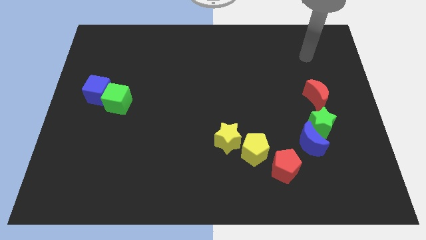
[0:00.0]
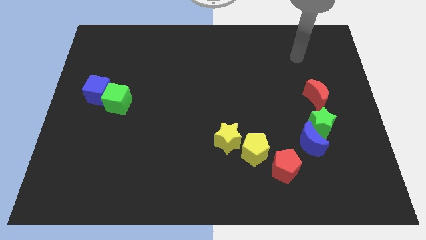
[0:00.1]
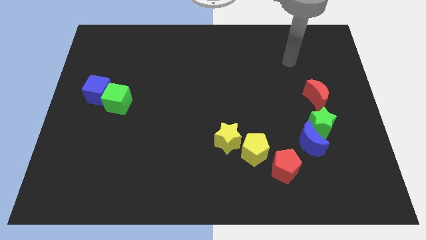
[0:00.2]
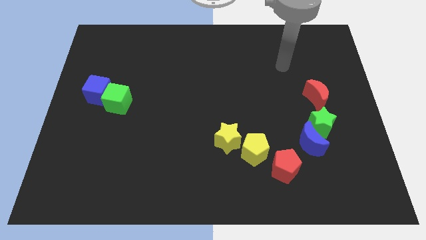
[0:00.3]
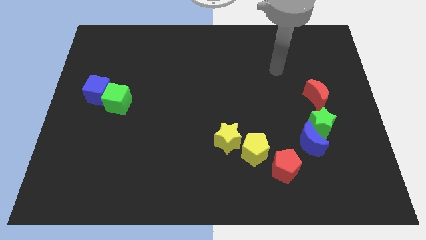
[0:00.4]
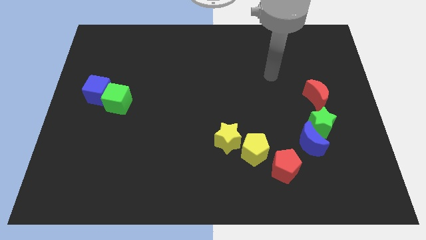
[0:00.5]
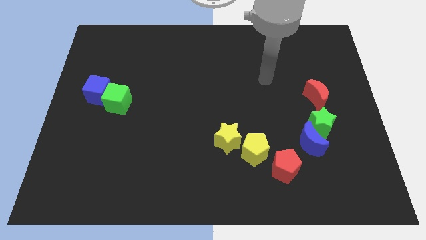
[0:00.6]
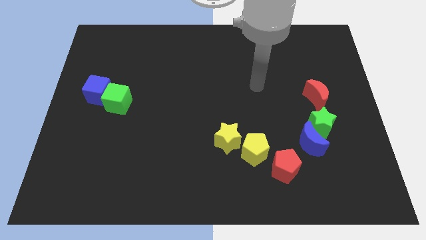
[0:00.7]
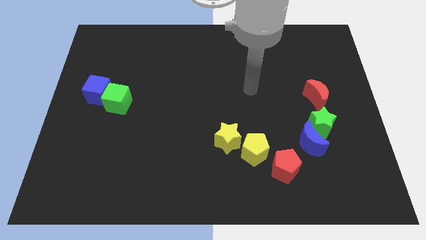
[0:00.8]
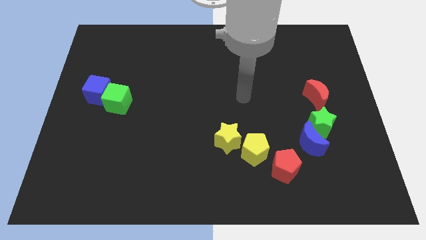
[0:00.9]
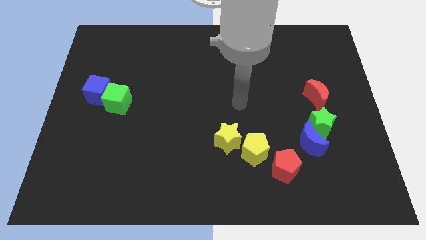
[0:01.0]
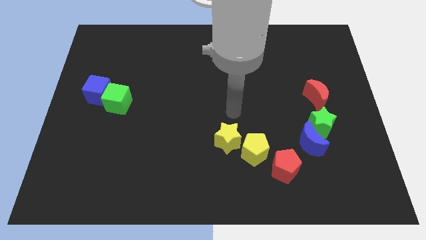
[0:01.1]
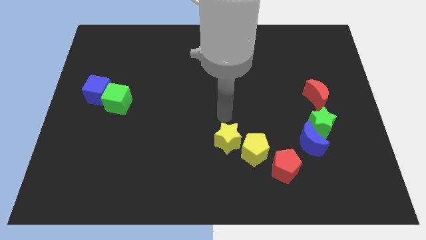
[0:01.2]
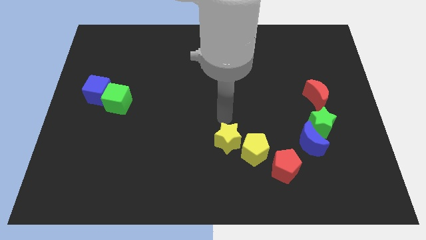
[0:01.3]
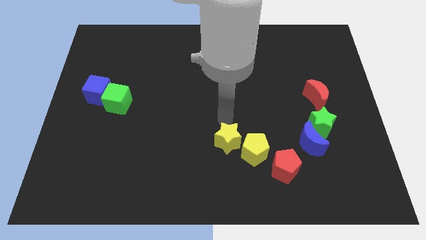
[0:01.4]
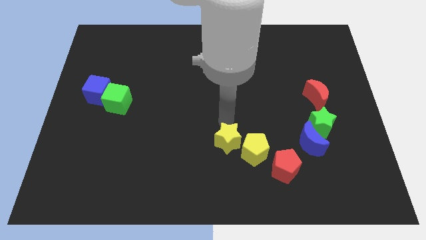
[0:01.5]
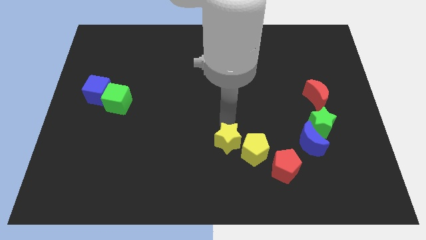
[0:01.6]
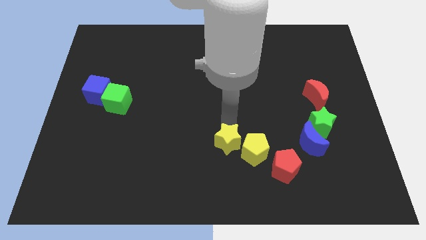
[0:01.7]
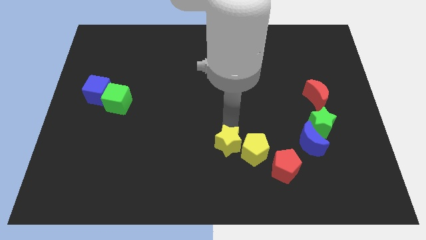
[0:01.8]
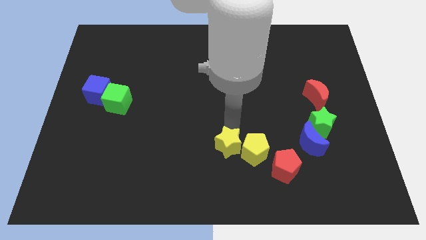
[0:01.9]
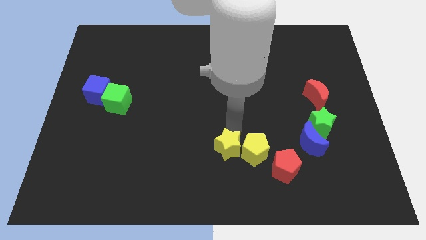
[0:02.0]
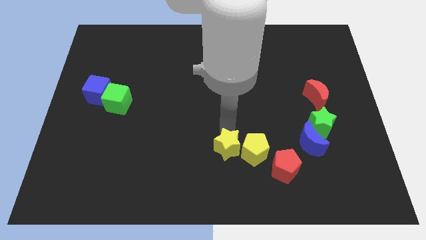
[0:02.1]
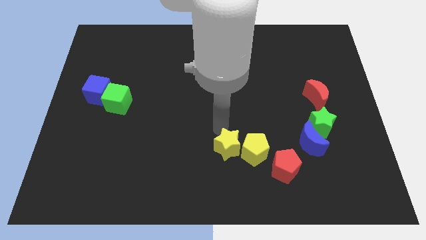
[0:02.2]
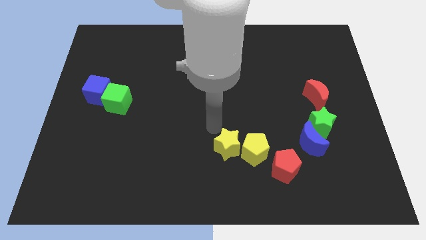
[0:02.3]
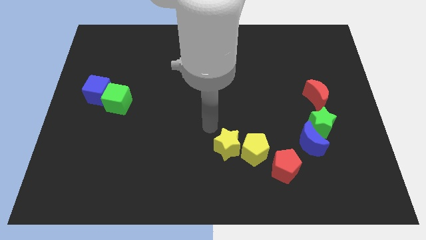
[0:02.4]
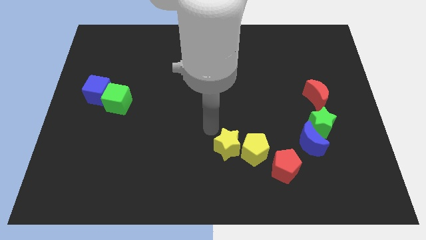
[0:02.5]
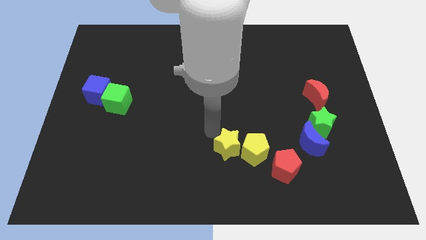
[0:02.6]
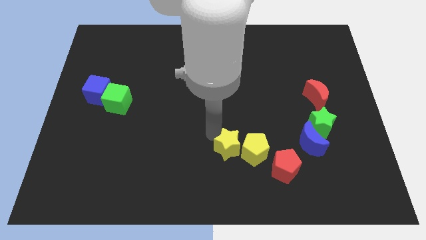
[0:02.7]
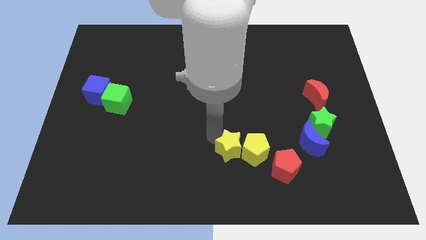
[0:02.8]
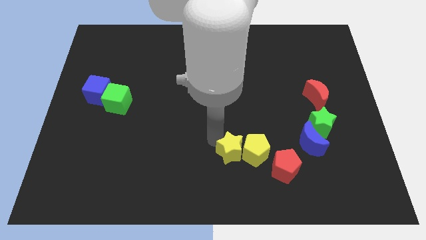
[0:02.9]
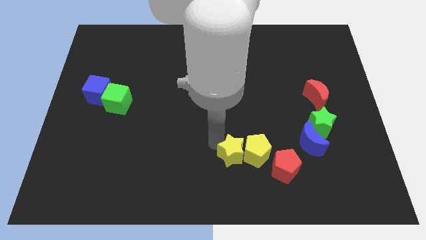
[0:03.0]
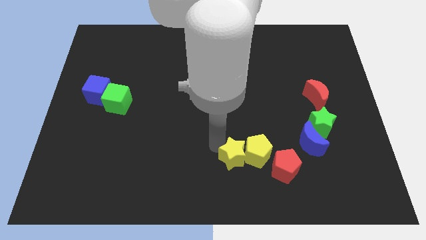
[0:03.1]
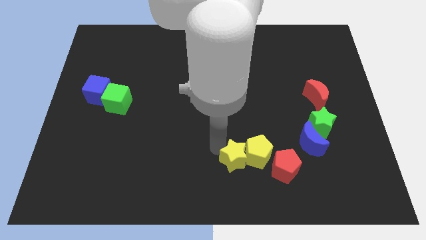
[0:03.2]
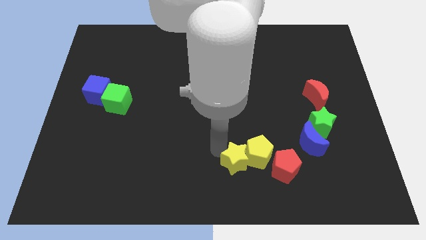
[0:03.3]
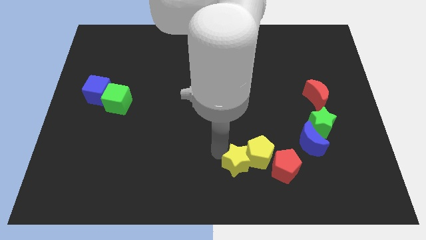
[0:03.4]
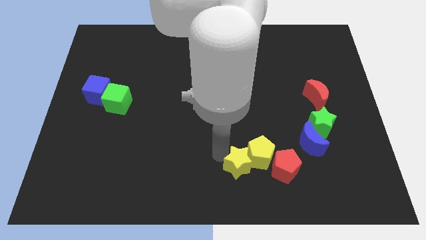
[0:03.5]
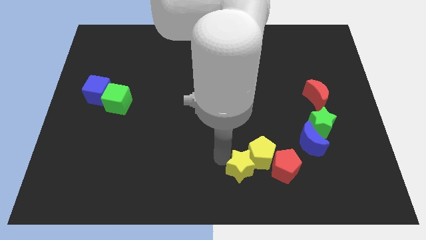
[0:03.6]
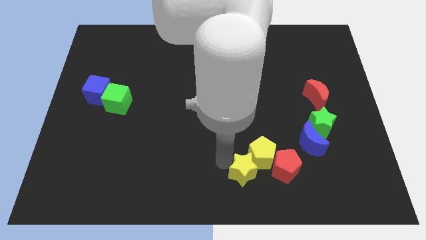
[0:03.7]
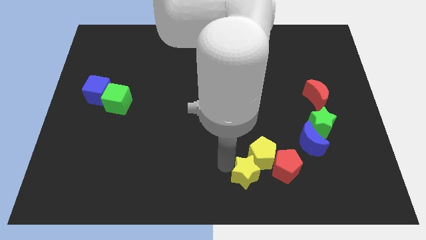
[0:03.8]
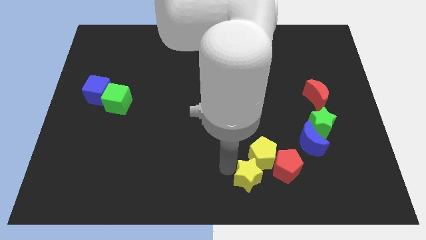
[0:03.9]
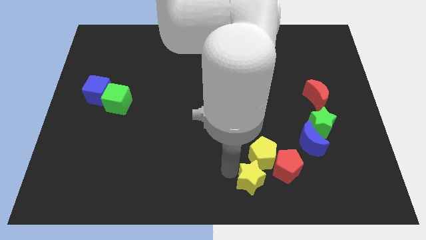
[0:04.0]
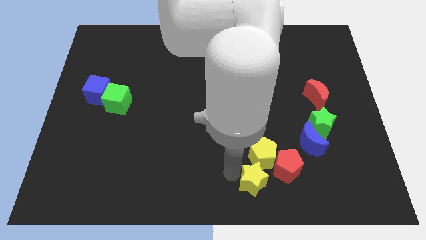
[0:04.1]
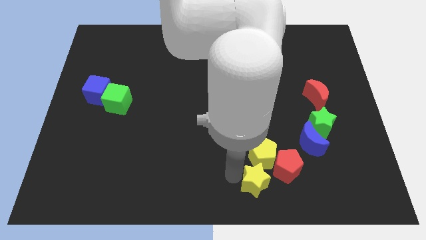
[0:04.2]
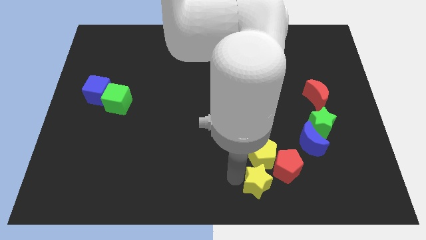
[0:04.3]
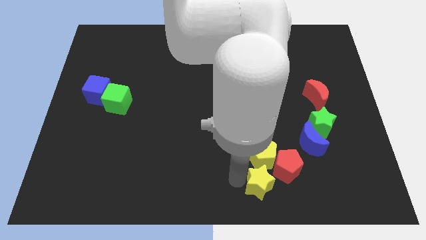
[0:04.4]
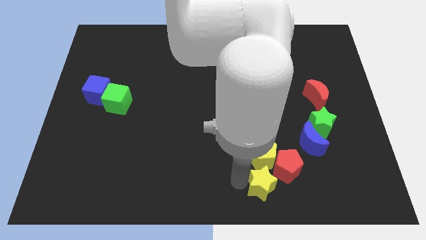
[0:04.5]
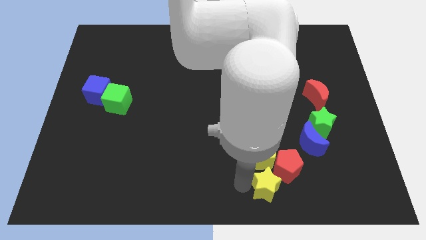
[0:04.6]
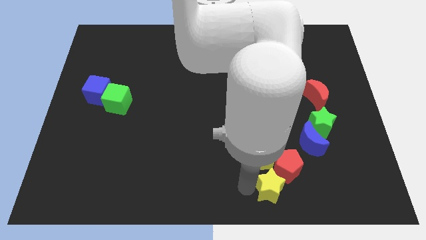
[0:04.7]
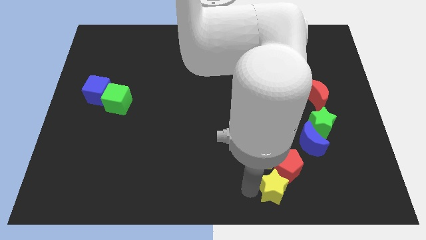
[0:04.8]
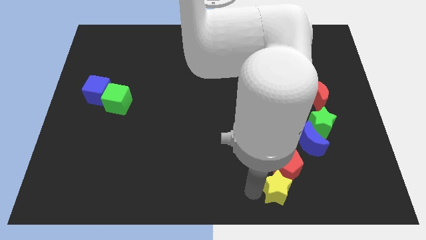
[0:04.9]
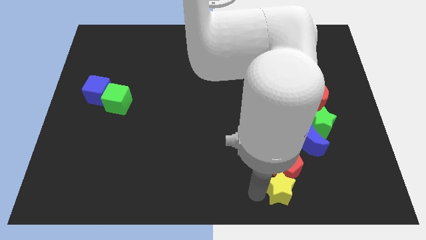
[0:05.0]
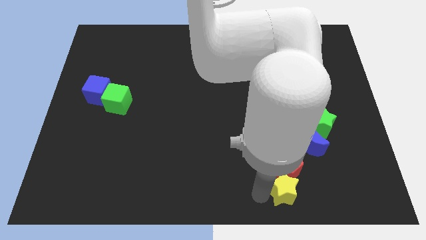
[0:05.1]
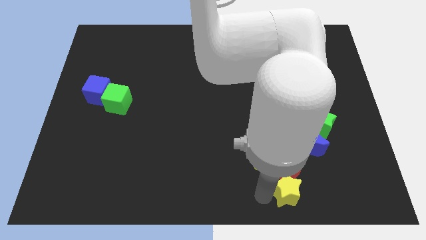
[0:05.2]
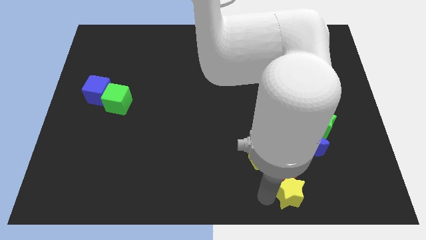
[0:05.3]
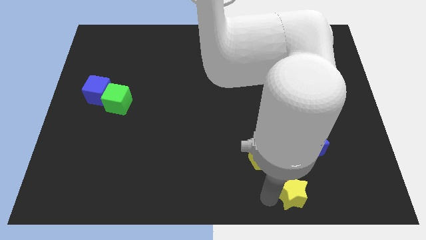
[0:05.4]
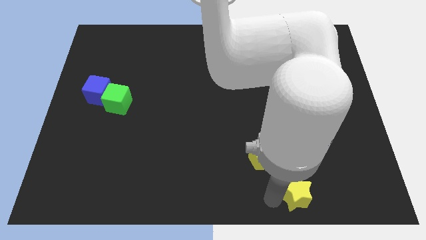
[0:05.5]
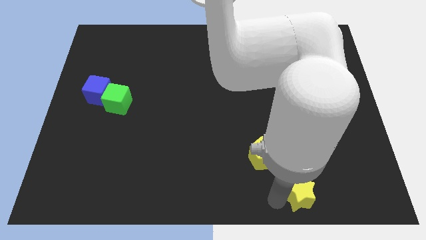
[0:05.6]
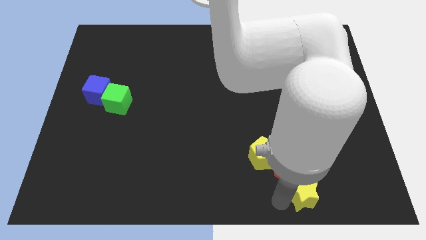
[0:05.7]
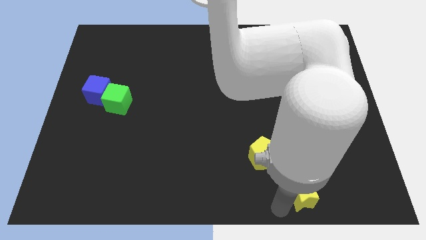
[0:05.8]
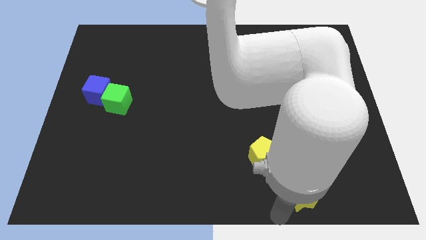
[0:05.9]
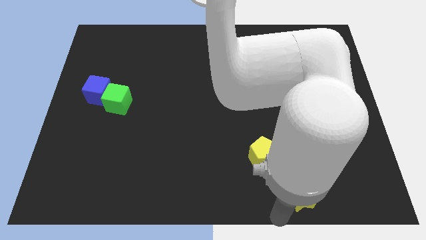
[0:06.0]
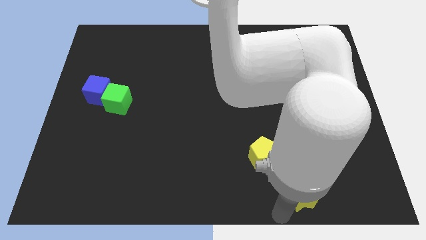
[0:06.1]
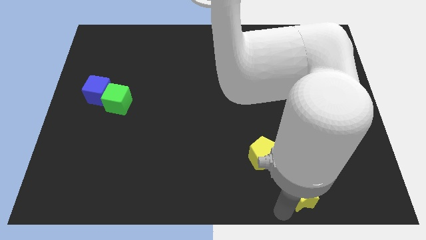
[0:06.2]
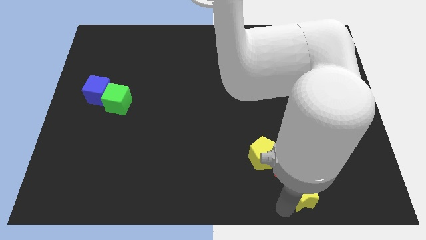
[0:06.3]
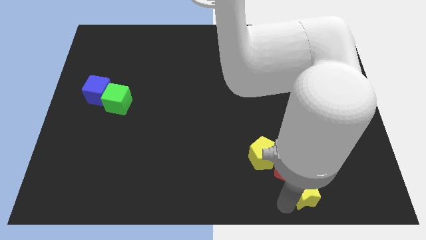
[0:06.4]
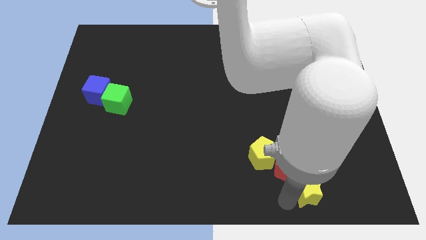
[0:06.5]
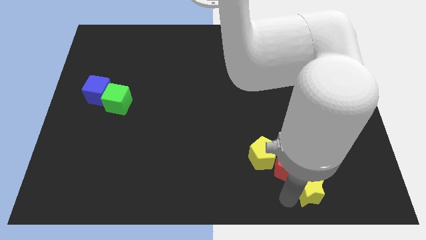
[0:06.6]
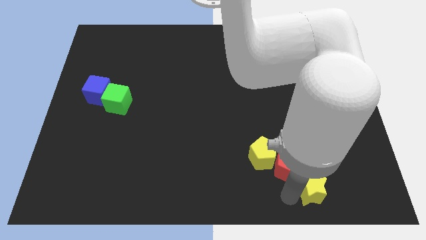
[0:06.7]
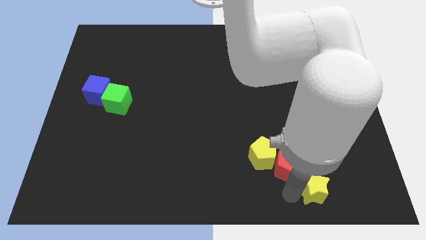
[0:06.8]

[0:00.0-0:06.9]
slide the yellow star just right of the red pentagon

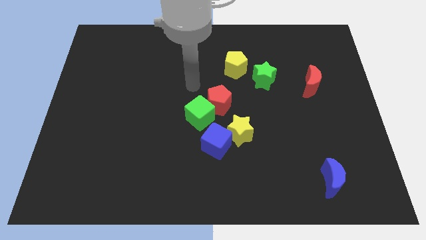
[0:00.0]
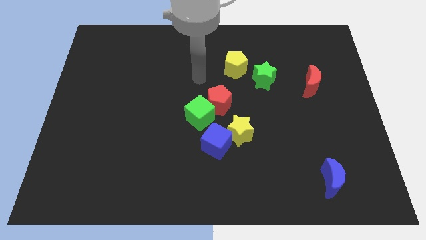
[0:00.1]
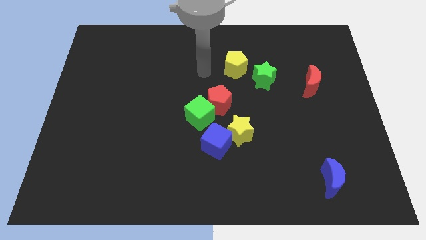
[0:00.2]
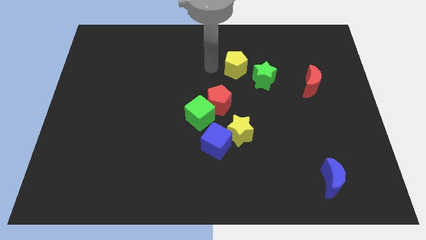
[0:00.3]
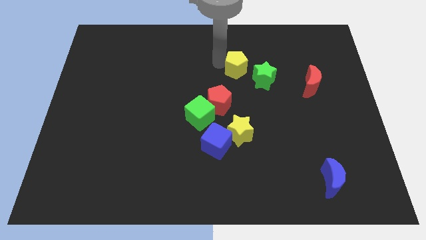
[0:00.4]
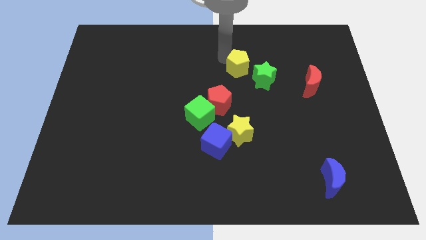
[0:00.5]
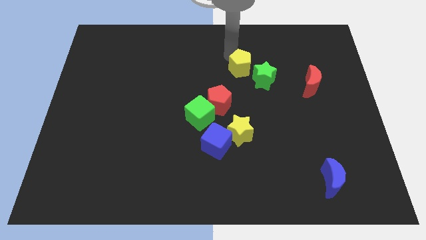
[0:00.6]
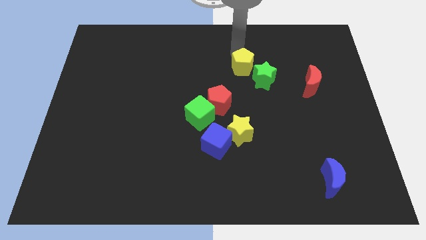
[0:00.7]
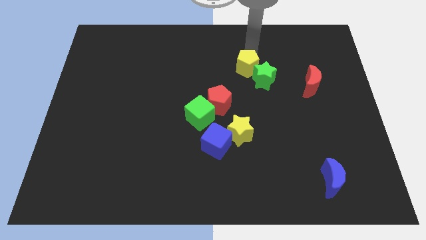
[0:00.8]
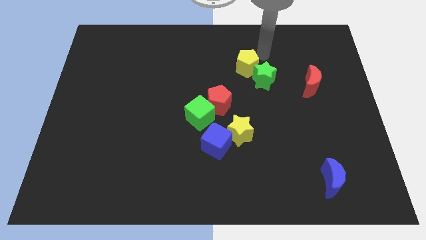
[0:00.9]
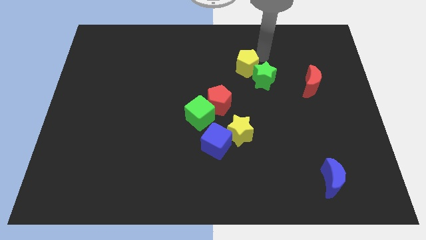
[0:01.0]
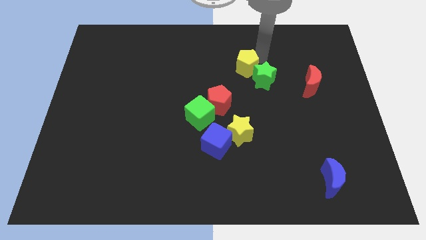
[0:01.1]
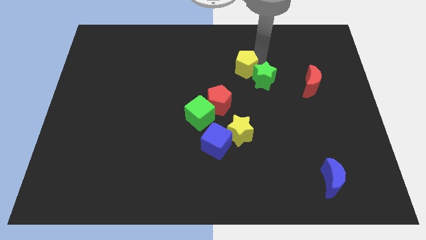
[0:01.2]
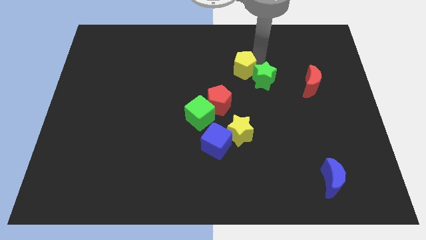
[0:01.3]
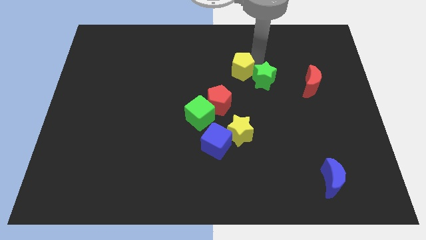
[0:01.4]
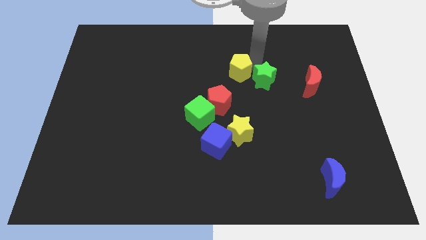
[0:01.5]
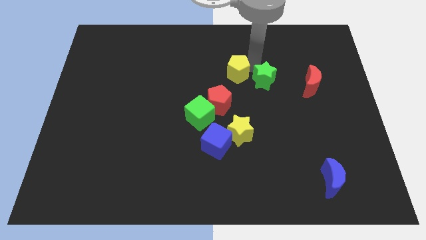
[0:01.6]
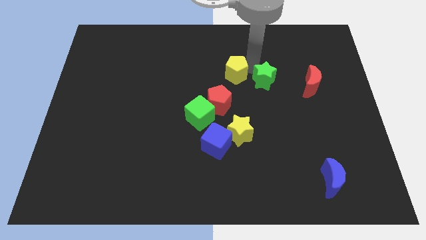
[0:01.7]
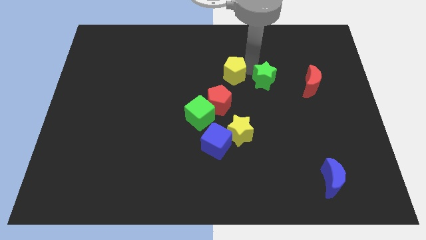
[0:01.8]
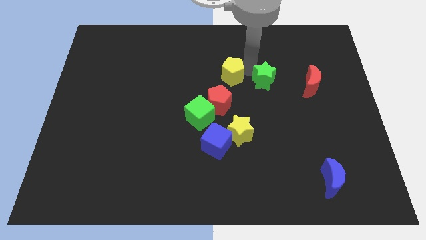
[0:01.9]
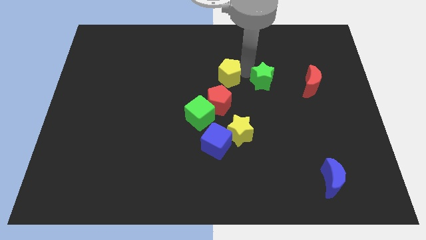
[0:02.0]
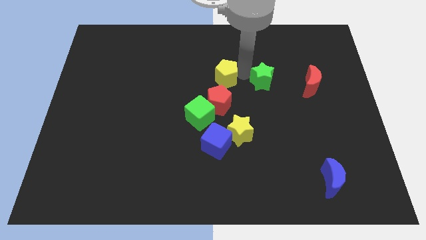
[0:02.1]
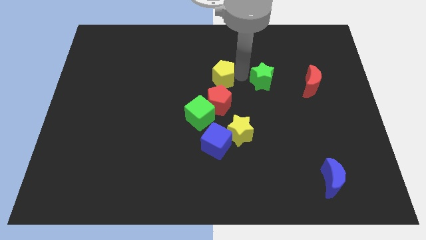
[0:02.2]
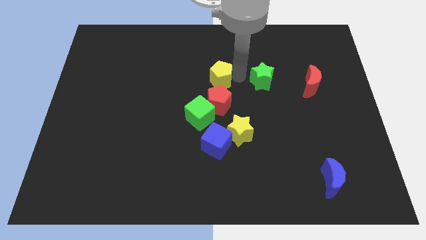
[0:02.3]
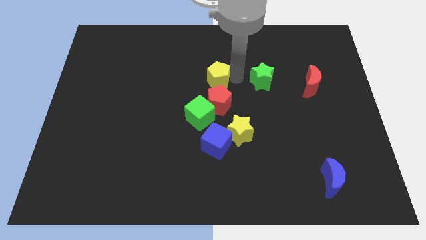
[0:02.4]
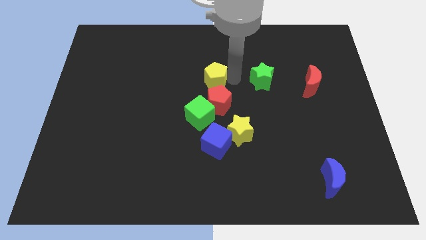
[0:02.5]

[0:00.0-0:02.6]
push the yellow pentagon to the top left side of the red pentagon
